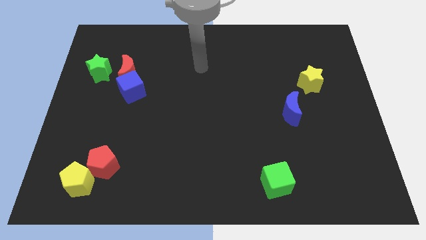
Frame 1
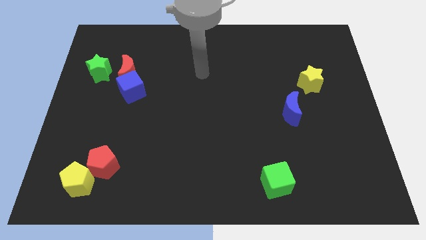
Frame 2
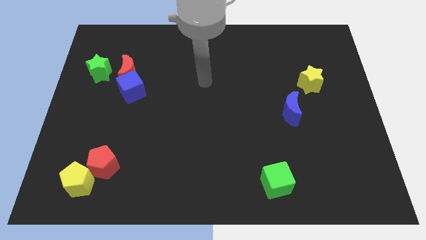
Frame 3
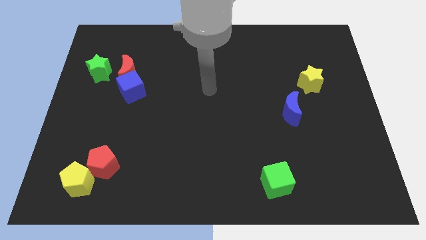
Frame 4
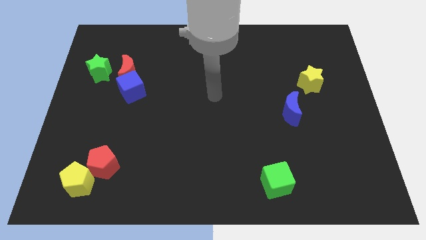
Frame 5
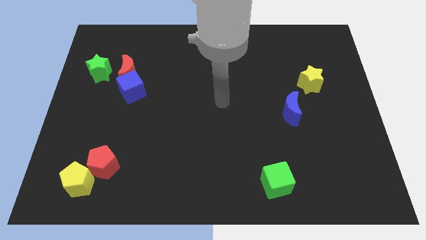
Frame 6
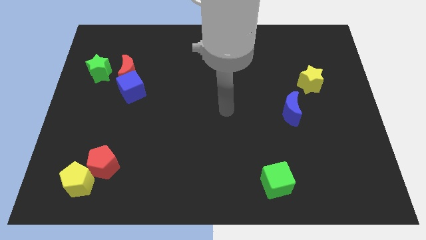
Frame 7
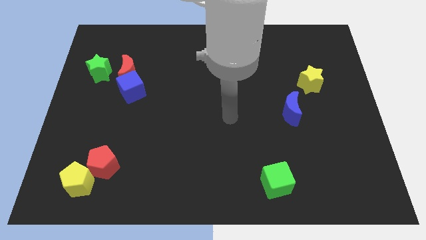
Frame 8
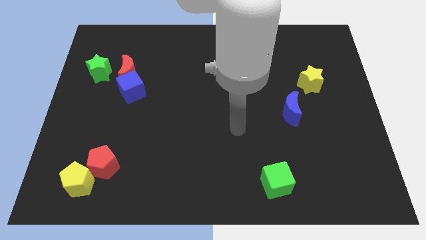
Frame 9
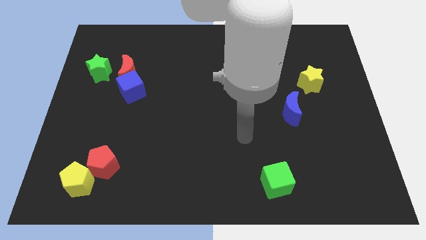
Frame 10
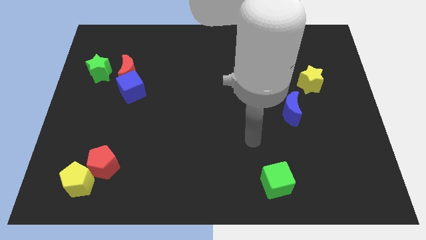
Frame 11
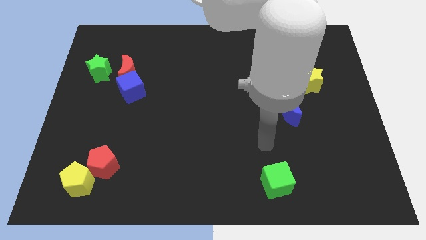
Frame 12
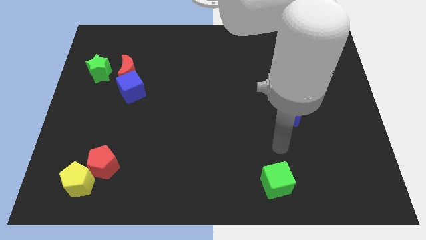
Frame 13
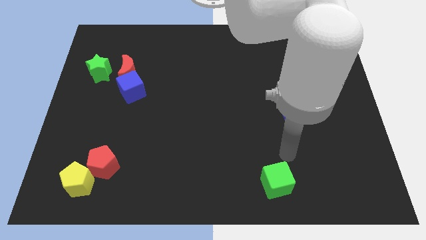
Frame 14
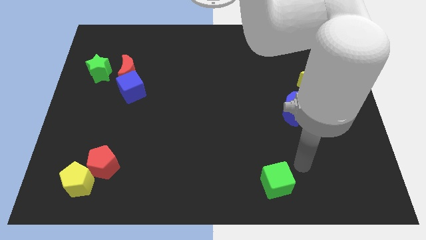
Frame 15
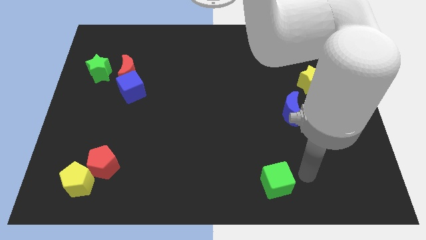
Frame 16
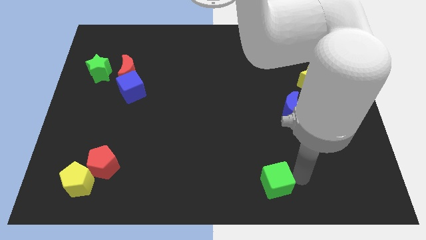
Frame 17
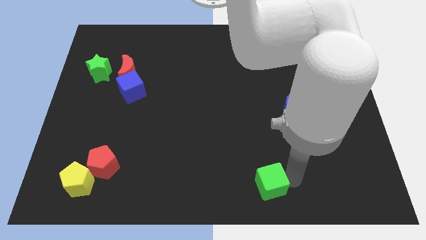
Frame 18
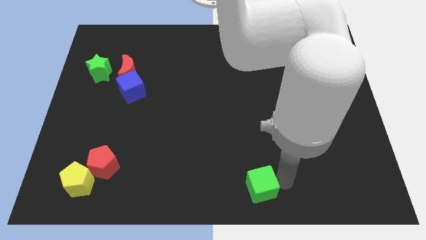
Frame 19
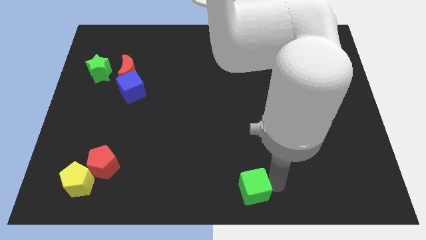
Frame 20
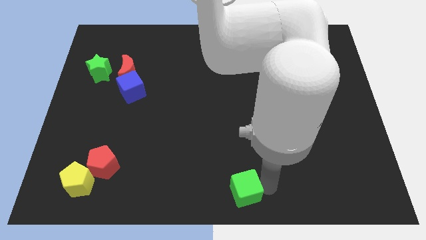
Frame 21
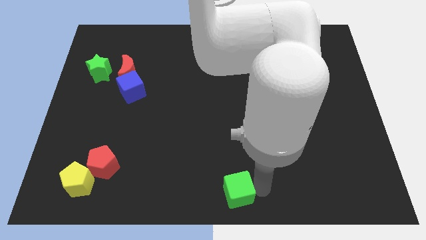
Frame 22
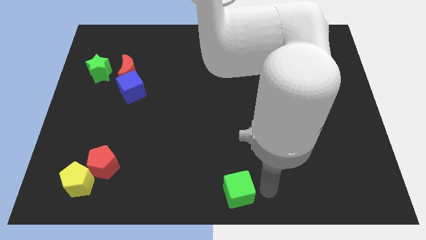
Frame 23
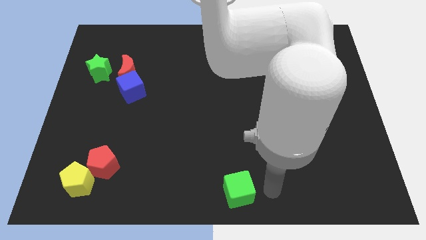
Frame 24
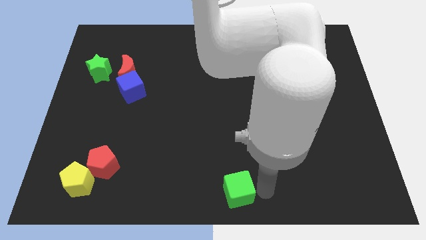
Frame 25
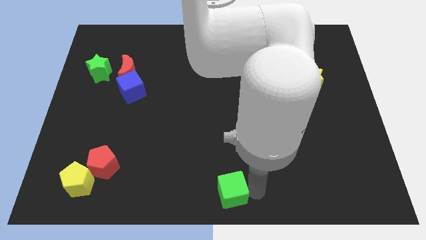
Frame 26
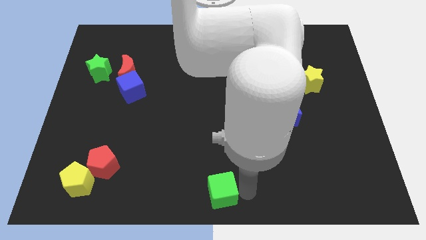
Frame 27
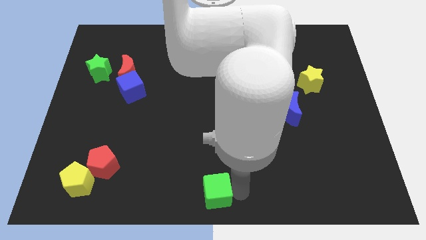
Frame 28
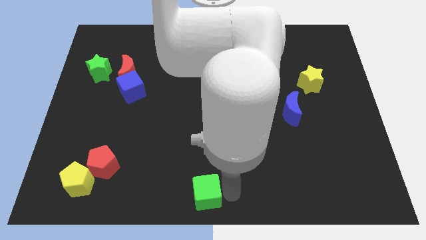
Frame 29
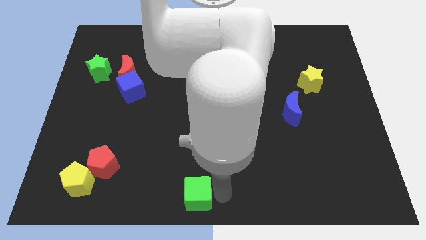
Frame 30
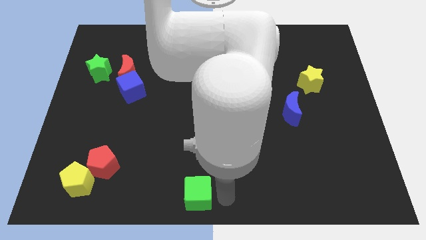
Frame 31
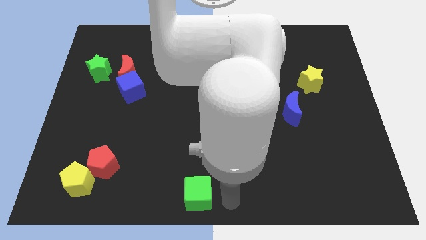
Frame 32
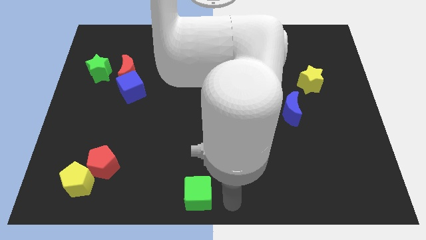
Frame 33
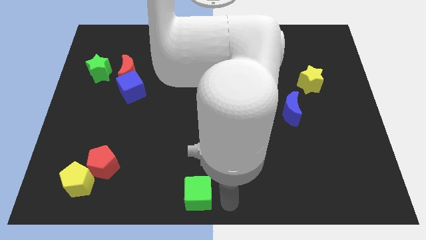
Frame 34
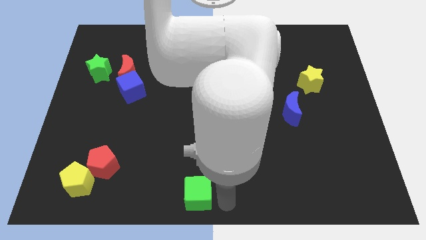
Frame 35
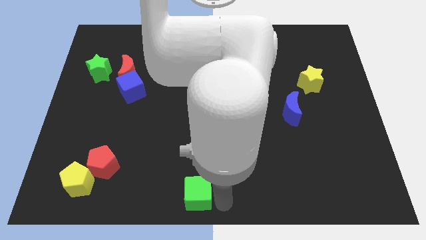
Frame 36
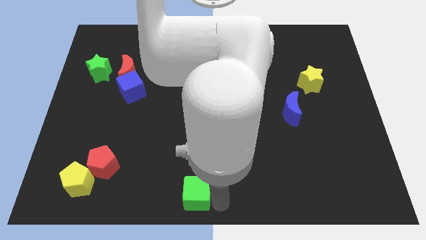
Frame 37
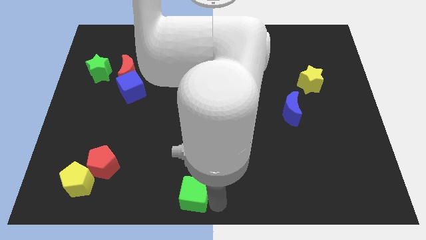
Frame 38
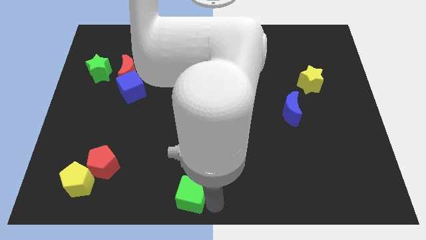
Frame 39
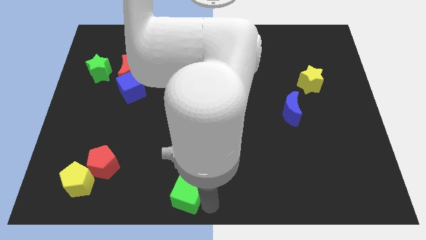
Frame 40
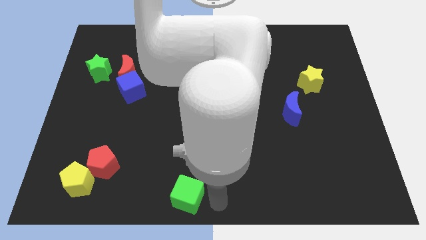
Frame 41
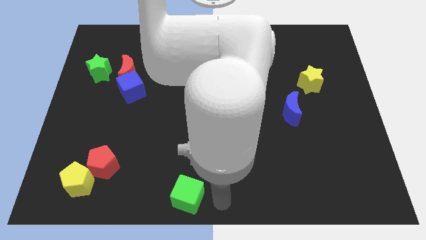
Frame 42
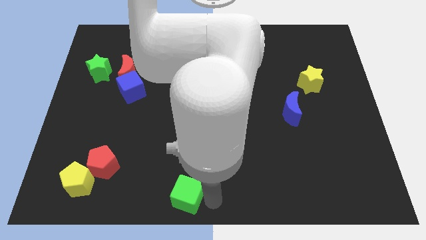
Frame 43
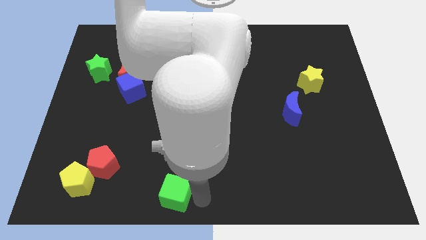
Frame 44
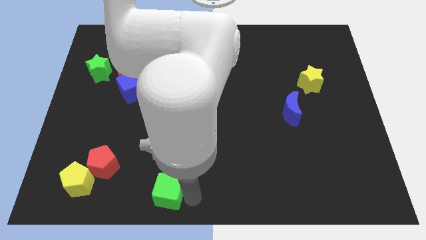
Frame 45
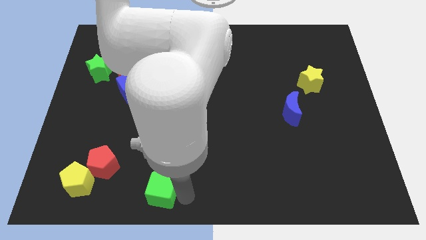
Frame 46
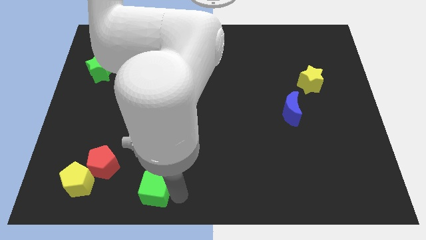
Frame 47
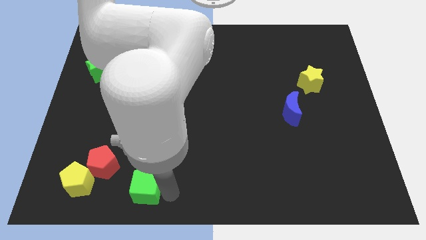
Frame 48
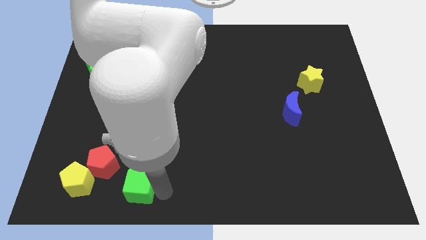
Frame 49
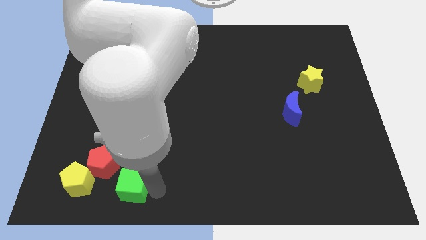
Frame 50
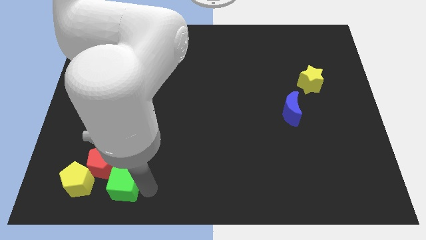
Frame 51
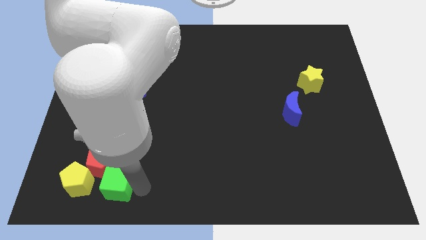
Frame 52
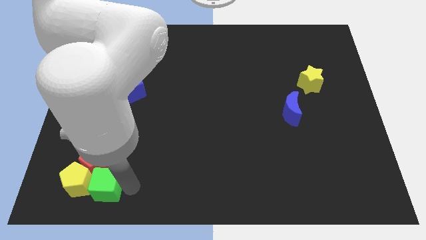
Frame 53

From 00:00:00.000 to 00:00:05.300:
slide the green cube close to the yellow pentagon

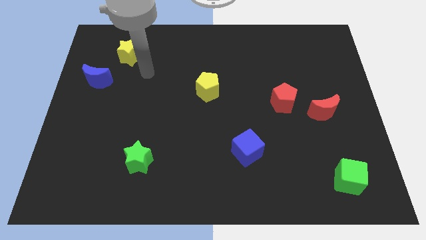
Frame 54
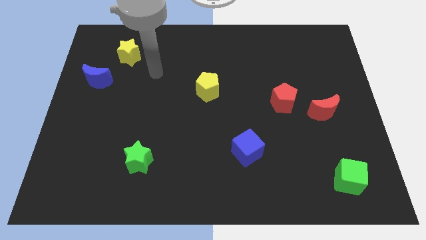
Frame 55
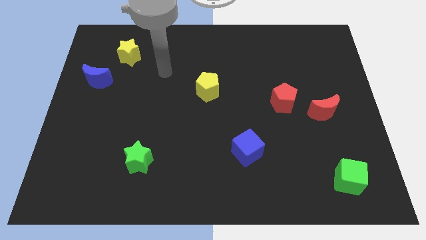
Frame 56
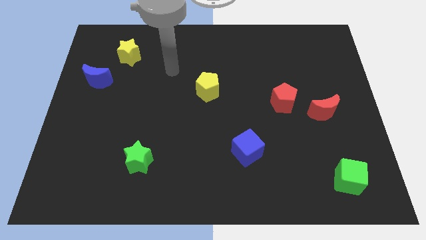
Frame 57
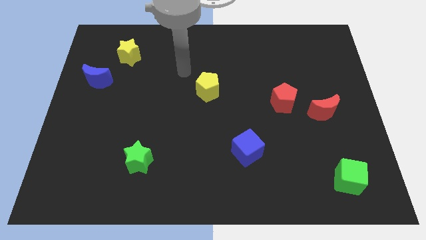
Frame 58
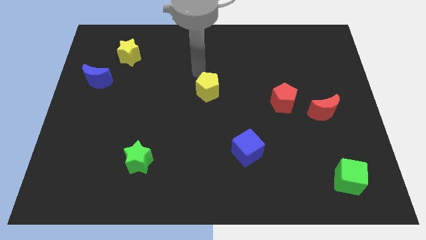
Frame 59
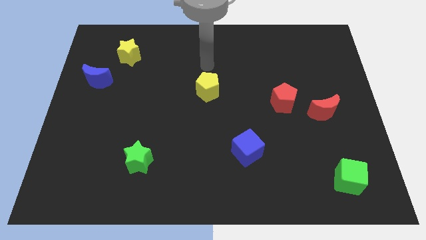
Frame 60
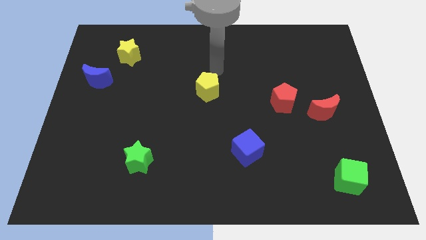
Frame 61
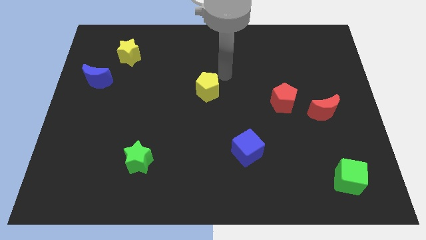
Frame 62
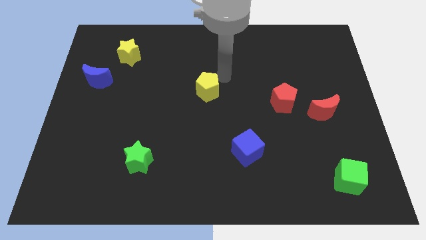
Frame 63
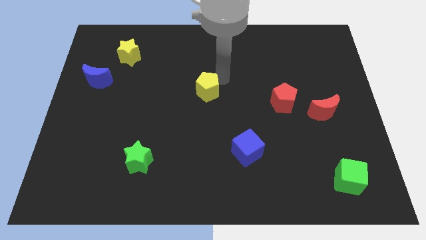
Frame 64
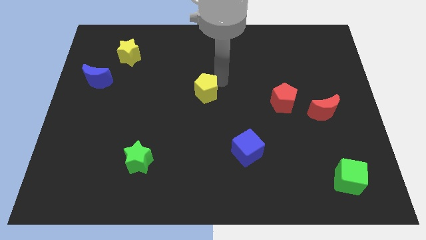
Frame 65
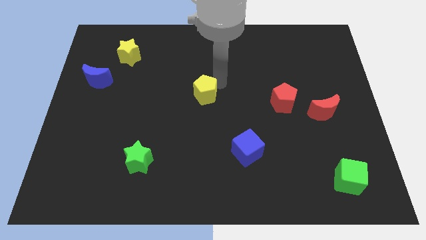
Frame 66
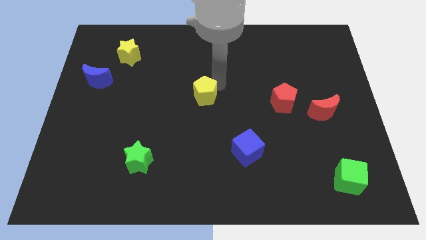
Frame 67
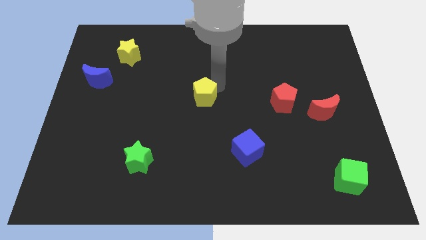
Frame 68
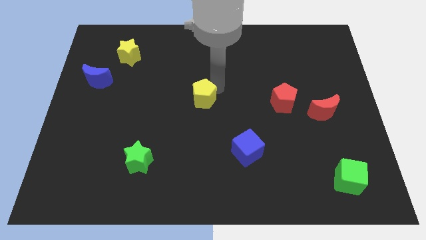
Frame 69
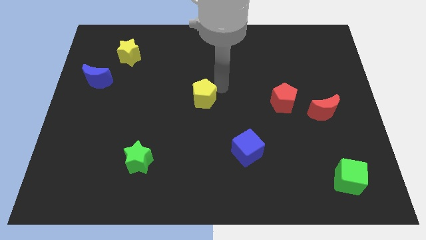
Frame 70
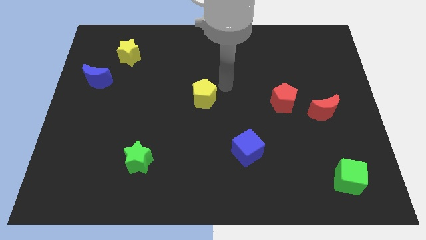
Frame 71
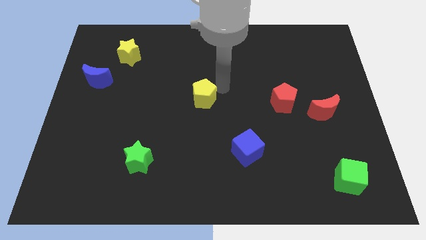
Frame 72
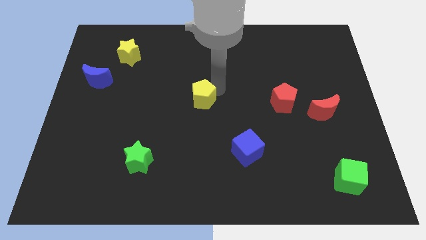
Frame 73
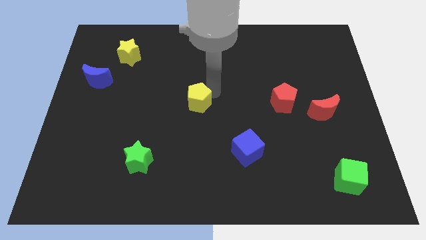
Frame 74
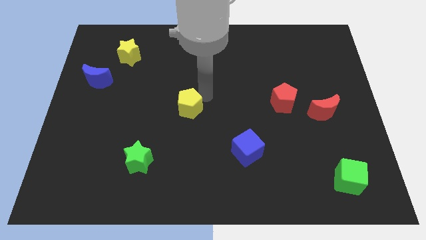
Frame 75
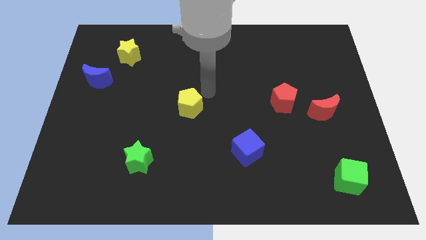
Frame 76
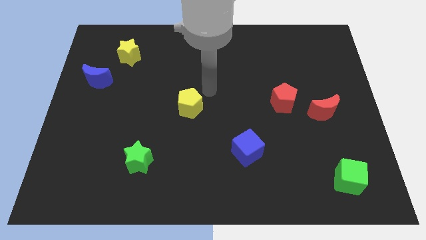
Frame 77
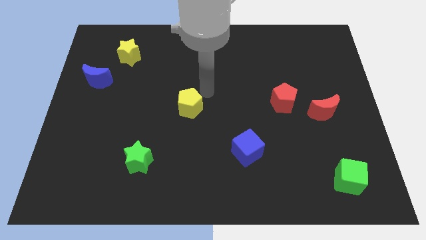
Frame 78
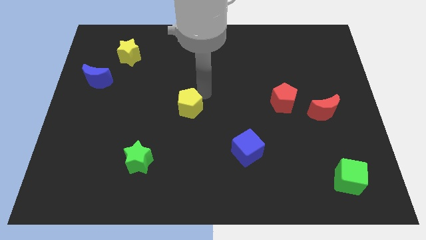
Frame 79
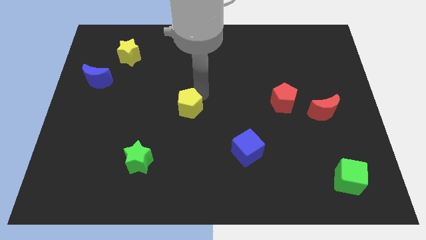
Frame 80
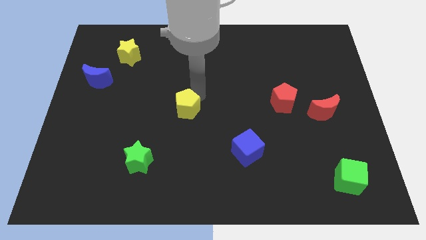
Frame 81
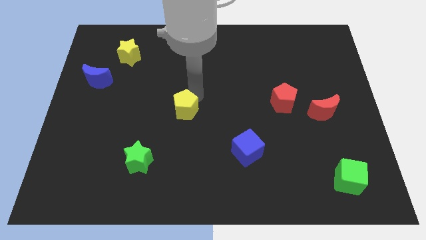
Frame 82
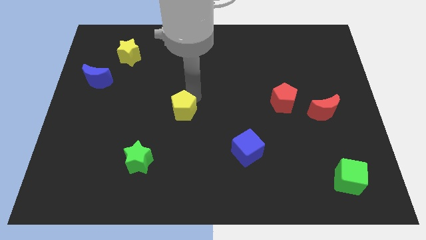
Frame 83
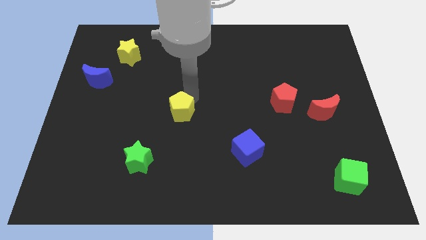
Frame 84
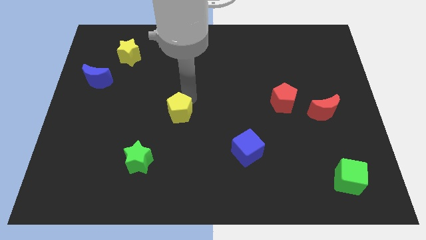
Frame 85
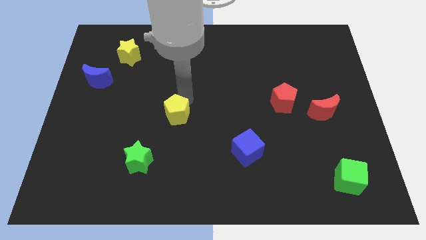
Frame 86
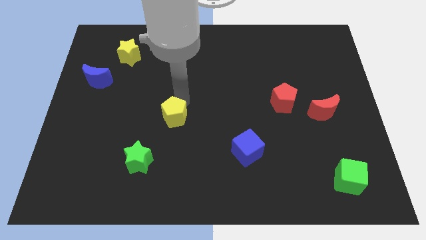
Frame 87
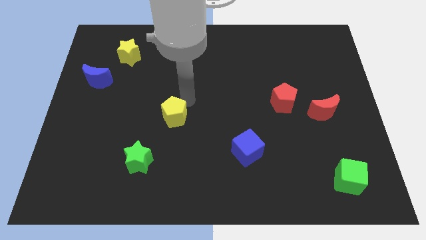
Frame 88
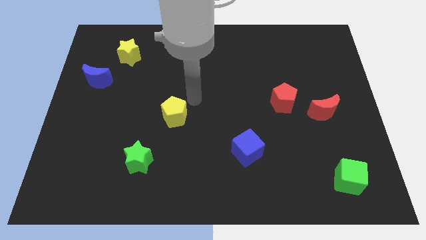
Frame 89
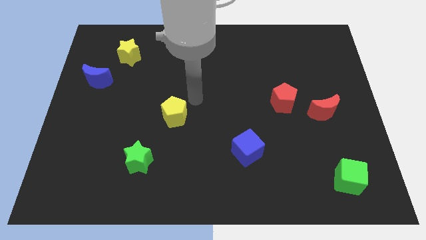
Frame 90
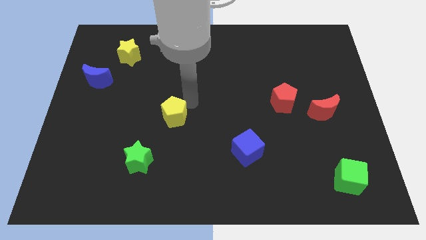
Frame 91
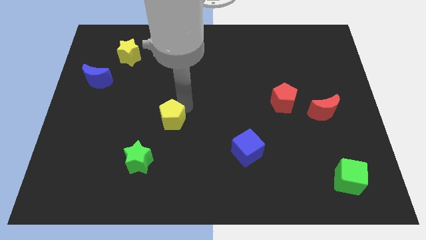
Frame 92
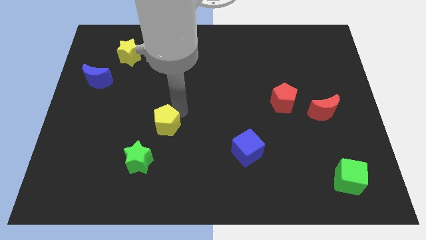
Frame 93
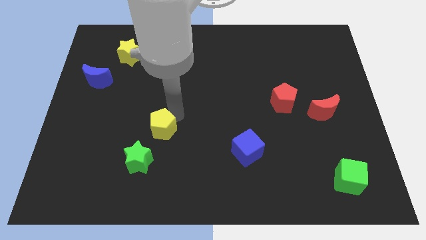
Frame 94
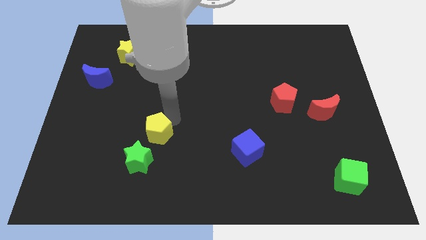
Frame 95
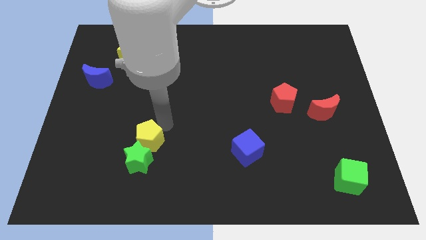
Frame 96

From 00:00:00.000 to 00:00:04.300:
slide the yellow pentagon to the green star
